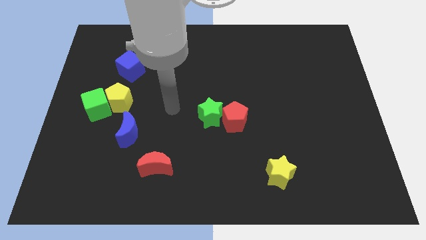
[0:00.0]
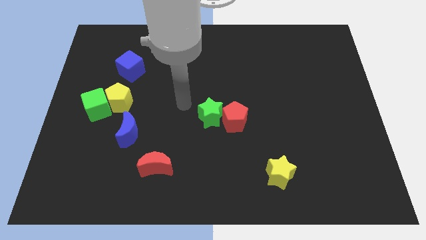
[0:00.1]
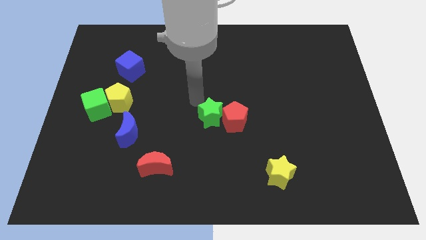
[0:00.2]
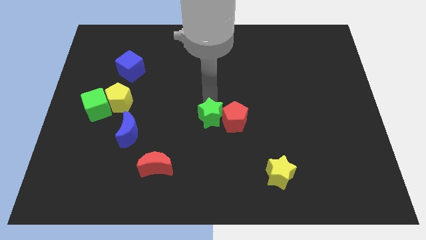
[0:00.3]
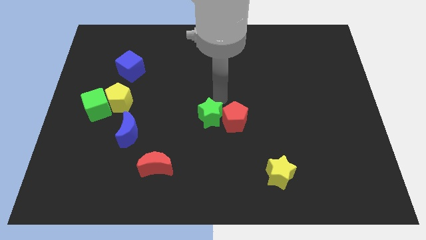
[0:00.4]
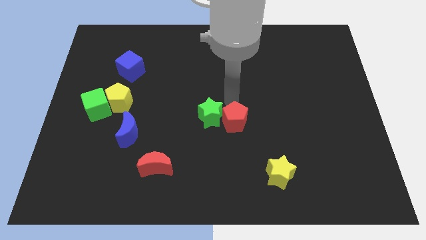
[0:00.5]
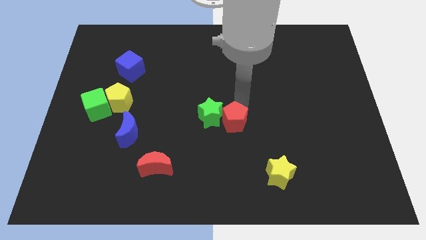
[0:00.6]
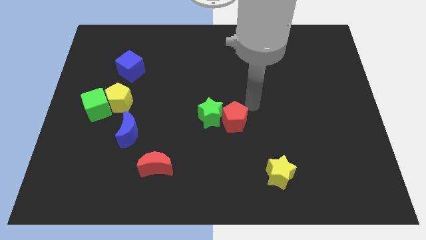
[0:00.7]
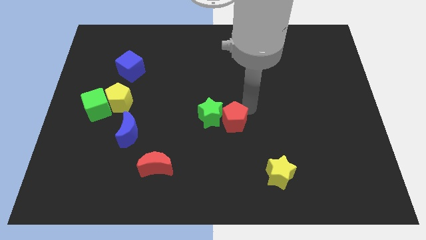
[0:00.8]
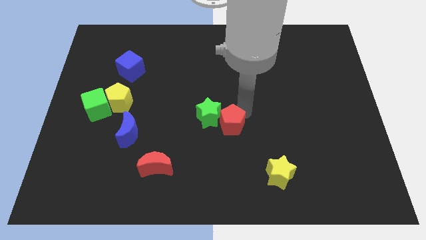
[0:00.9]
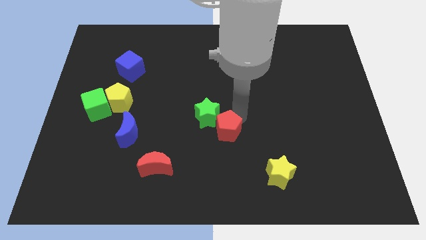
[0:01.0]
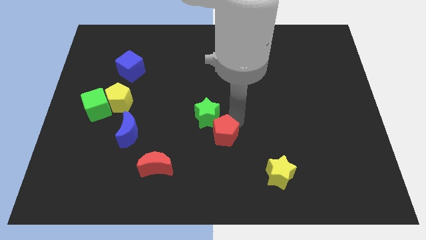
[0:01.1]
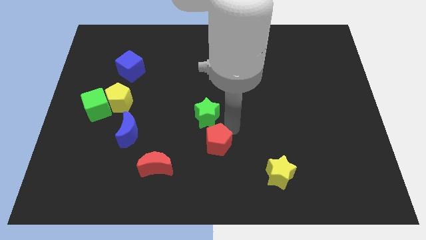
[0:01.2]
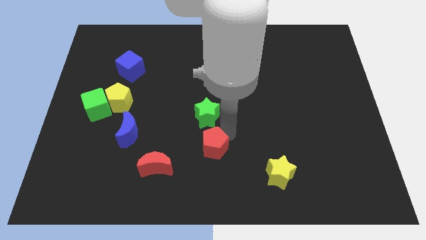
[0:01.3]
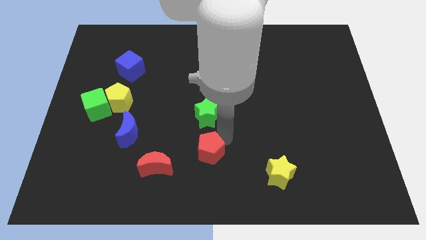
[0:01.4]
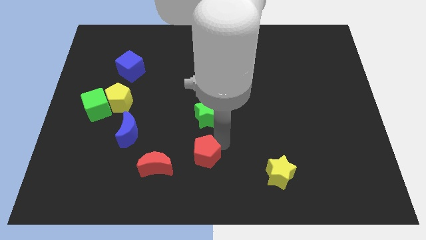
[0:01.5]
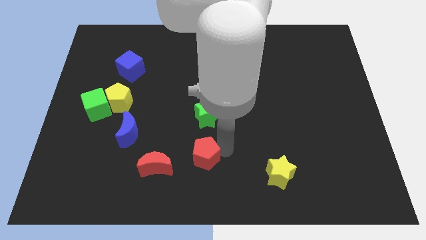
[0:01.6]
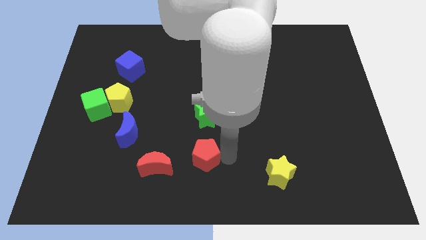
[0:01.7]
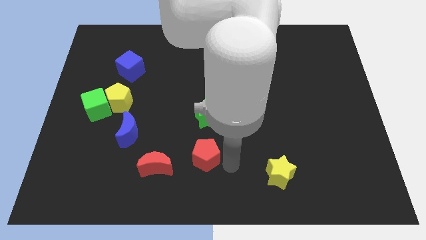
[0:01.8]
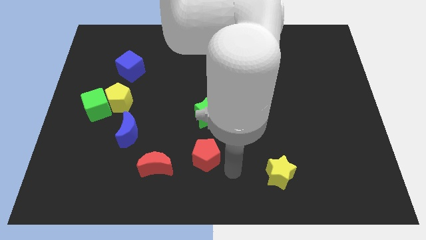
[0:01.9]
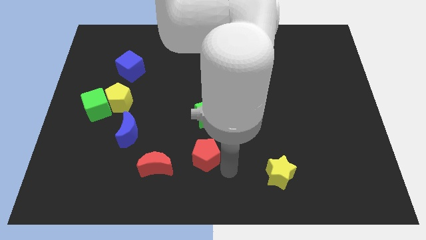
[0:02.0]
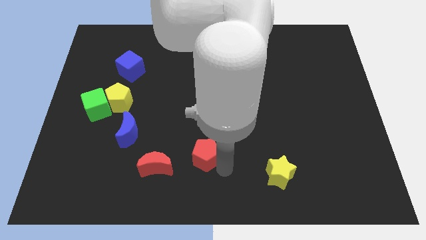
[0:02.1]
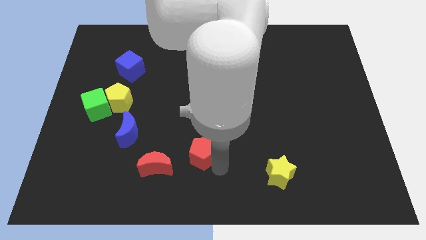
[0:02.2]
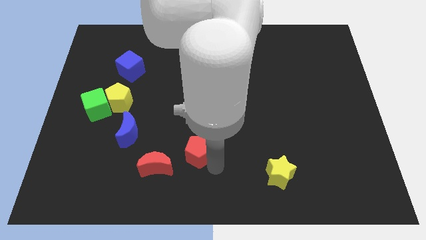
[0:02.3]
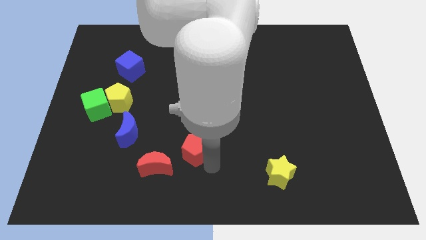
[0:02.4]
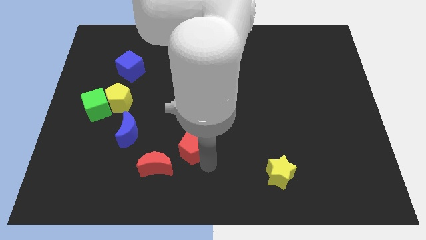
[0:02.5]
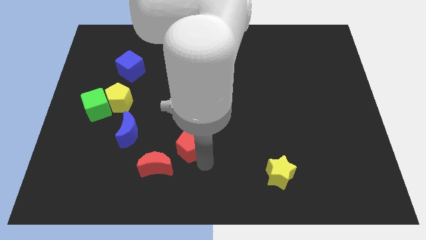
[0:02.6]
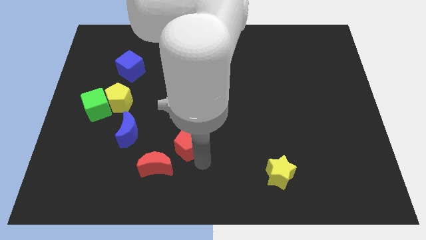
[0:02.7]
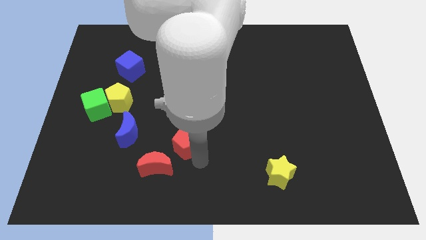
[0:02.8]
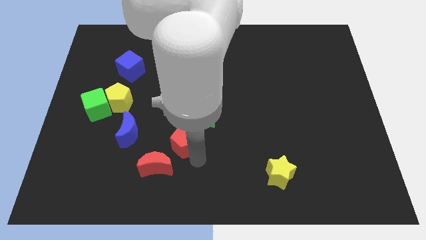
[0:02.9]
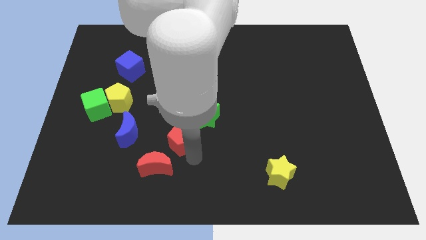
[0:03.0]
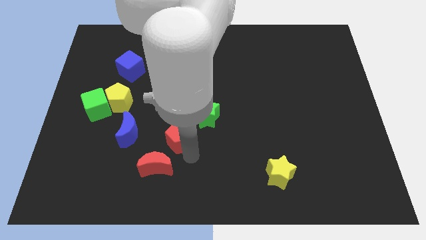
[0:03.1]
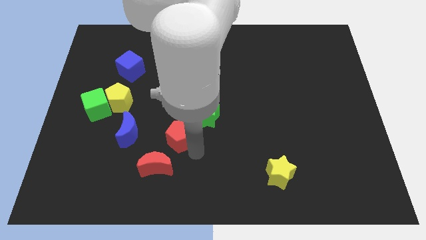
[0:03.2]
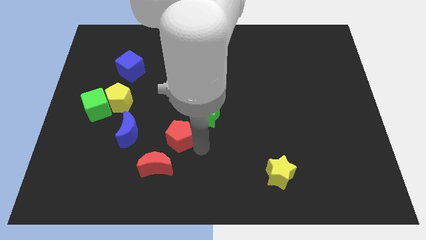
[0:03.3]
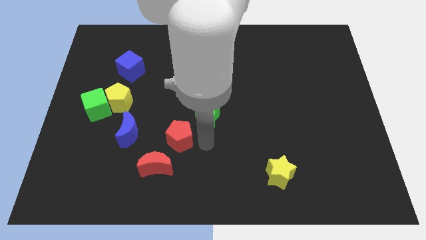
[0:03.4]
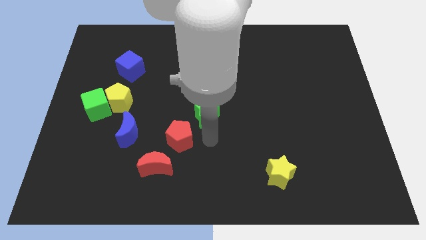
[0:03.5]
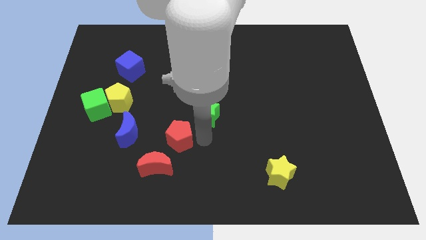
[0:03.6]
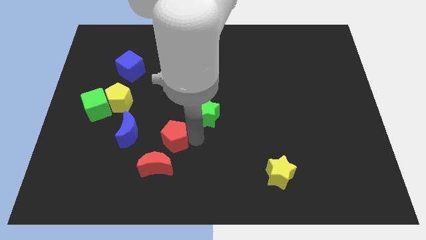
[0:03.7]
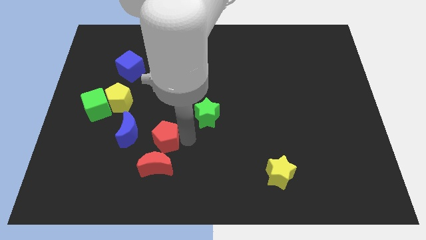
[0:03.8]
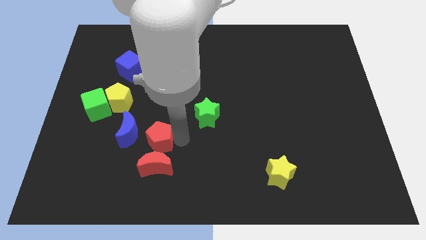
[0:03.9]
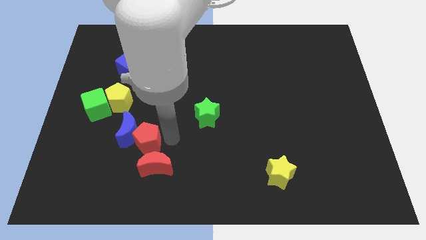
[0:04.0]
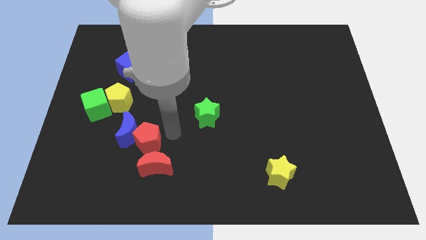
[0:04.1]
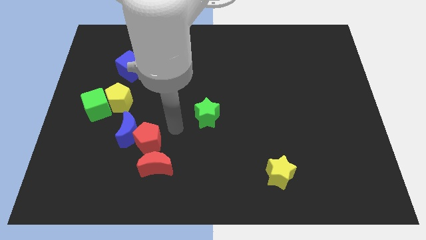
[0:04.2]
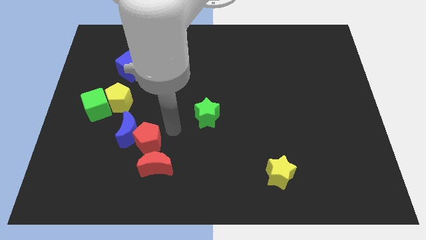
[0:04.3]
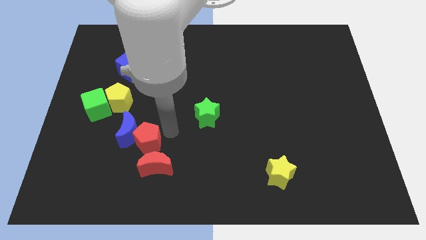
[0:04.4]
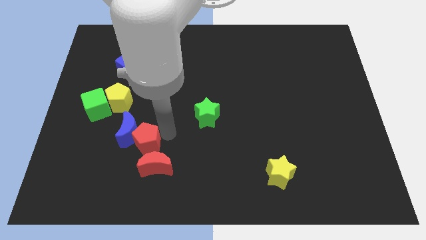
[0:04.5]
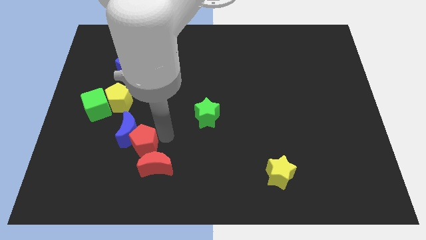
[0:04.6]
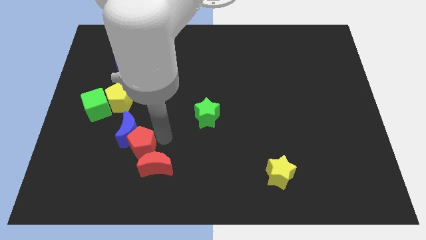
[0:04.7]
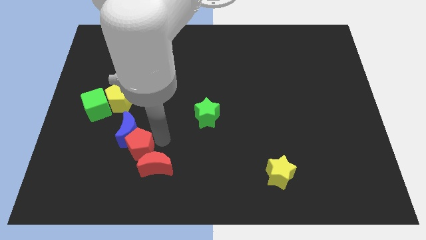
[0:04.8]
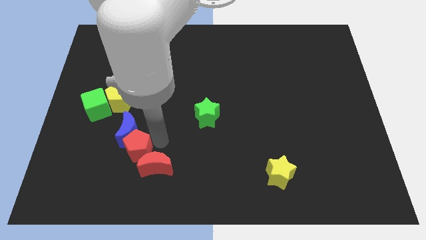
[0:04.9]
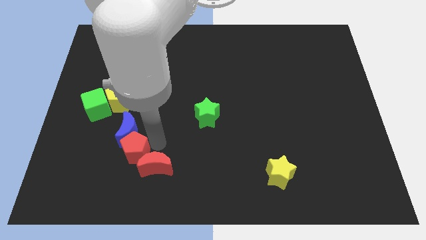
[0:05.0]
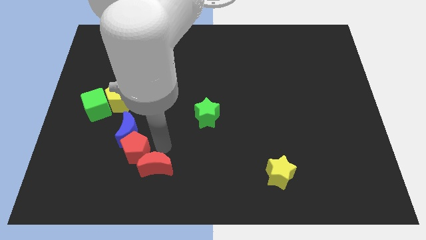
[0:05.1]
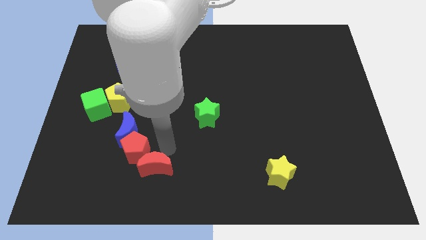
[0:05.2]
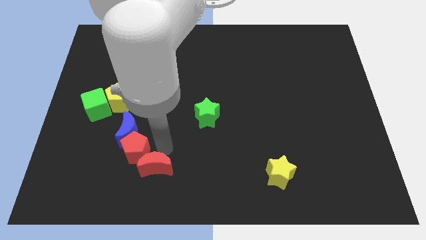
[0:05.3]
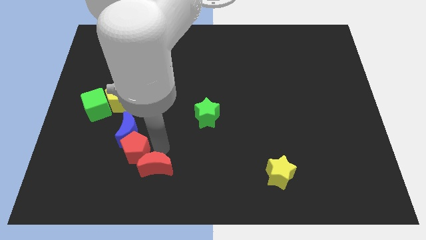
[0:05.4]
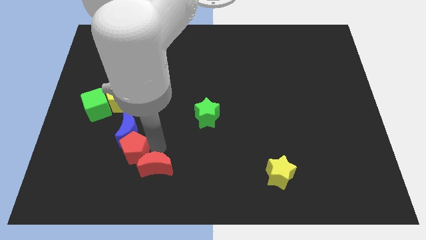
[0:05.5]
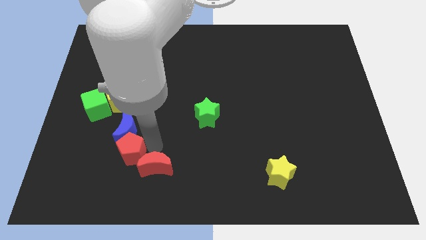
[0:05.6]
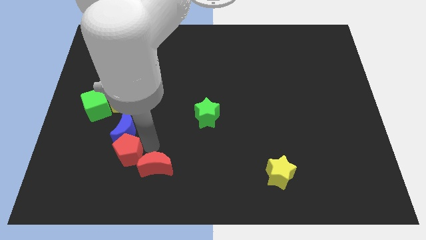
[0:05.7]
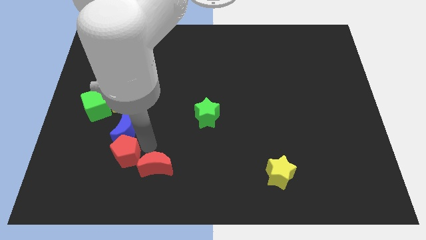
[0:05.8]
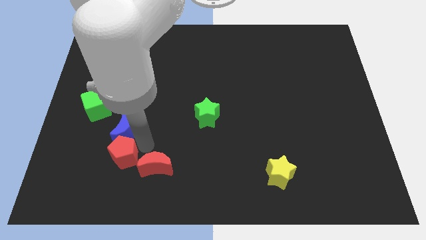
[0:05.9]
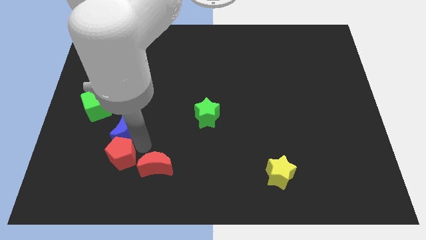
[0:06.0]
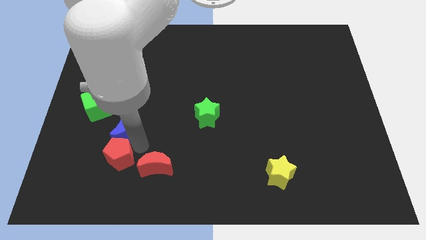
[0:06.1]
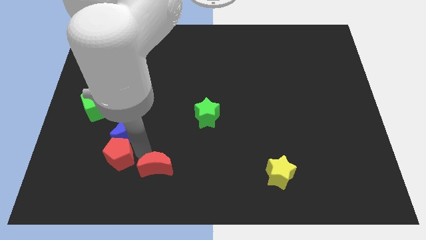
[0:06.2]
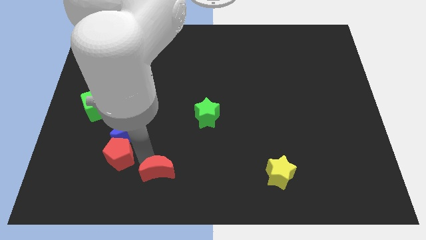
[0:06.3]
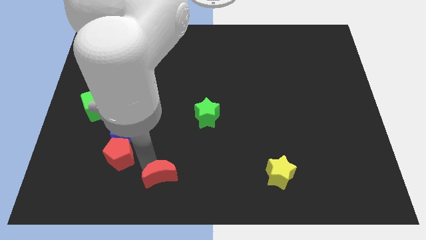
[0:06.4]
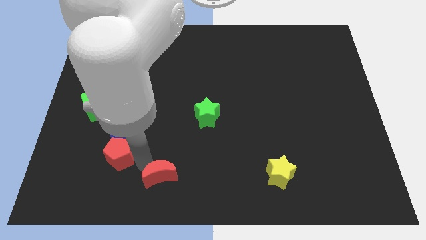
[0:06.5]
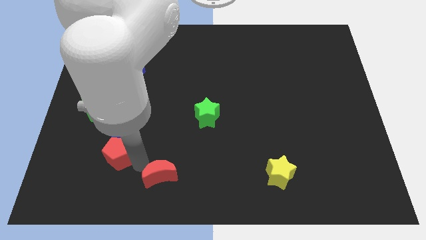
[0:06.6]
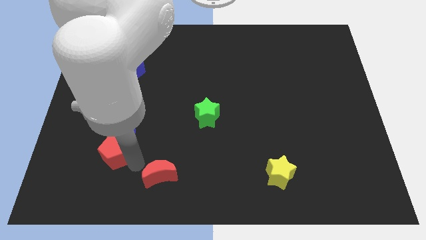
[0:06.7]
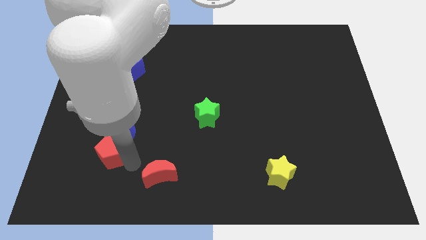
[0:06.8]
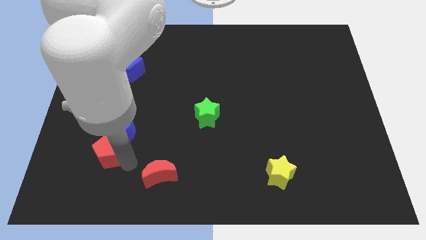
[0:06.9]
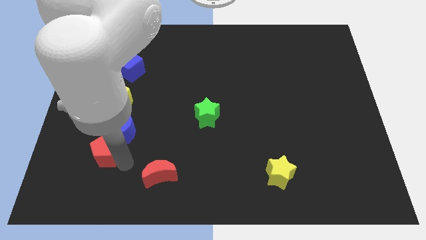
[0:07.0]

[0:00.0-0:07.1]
push the red pentagon below the green cube

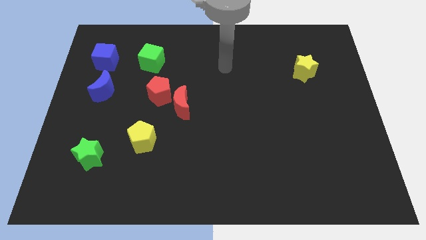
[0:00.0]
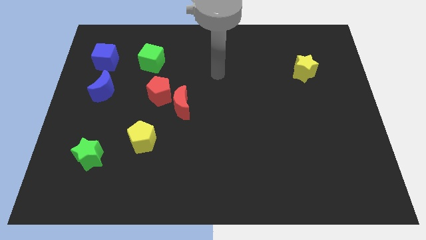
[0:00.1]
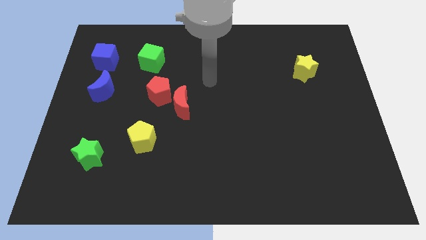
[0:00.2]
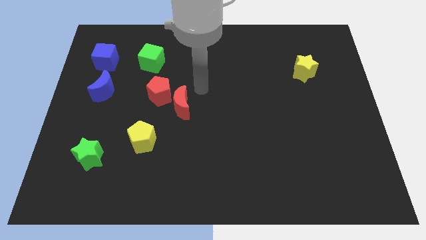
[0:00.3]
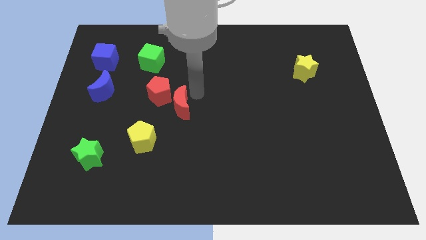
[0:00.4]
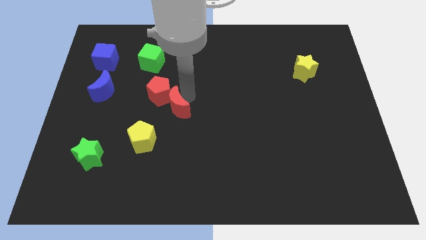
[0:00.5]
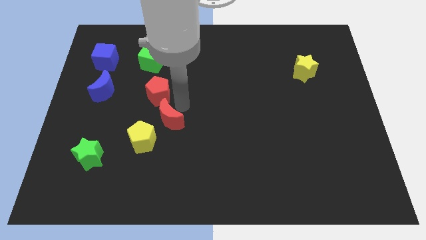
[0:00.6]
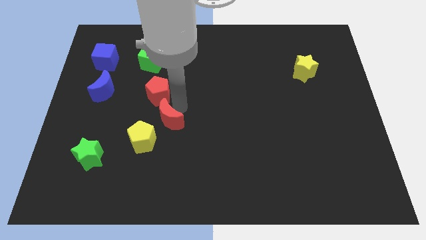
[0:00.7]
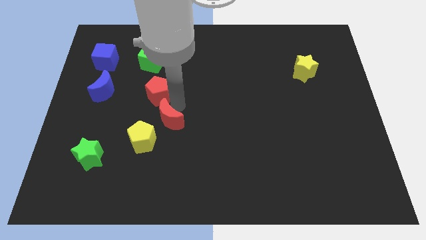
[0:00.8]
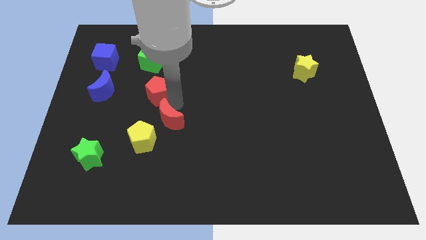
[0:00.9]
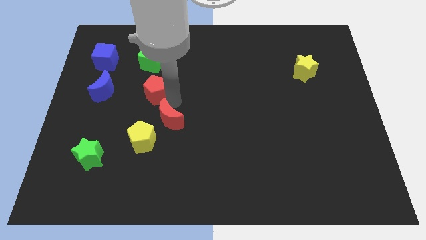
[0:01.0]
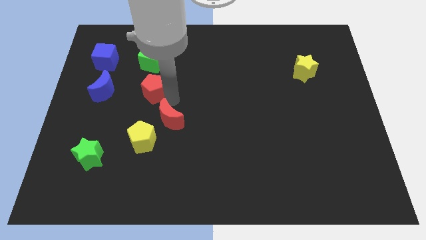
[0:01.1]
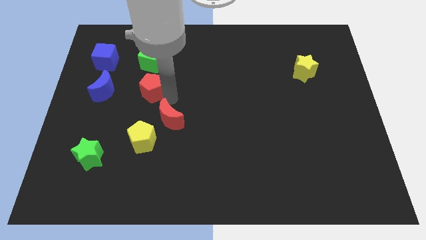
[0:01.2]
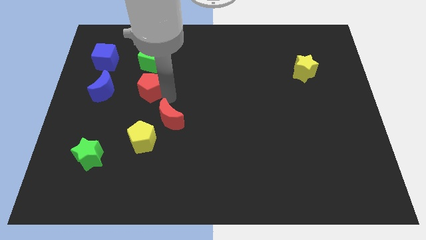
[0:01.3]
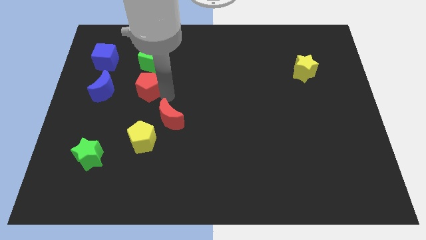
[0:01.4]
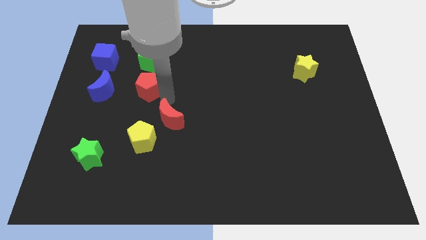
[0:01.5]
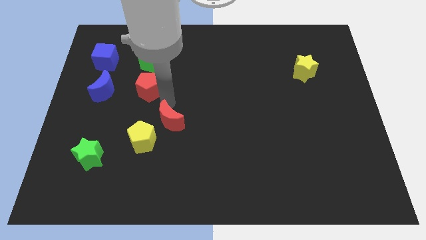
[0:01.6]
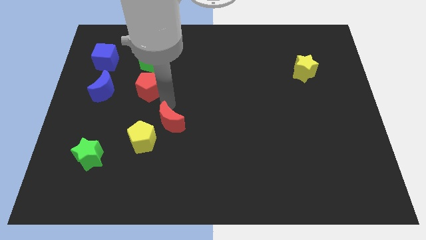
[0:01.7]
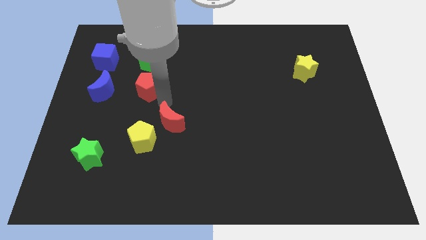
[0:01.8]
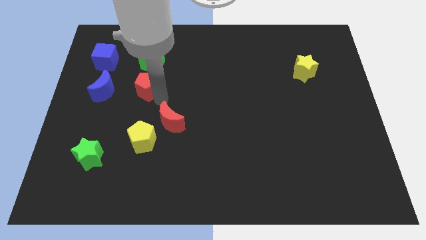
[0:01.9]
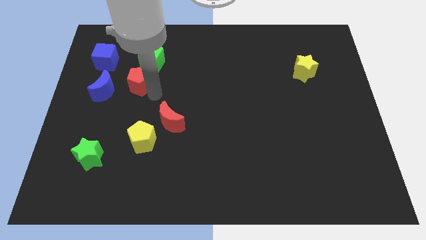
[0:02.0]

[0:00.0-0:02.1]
put the red pentagon diagonally down and to the right of the blue cube
